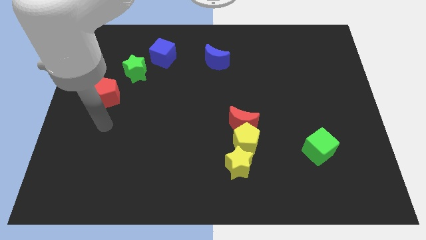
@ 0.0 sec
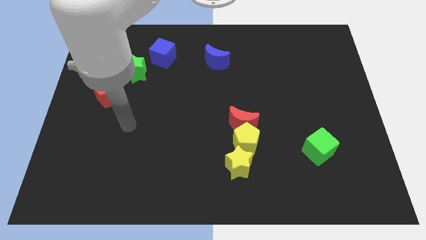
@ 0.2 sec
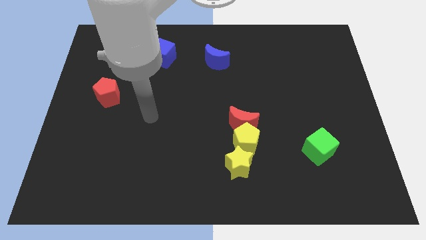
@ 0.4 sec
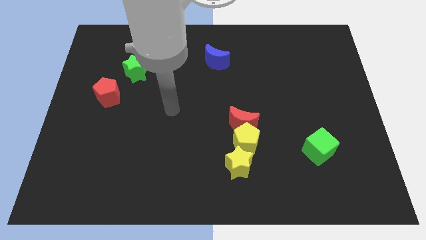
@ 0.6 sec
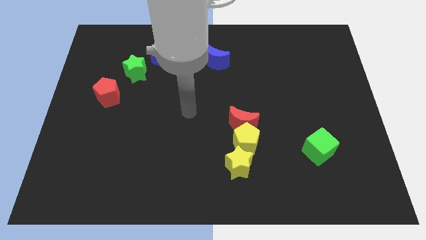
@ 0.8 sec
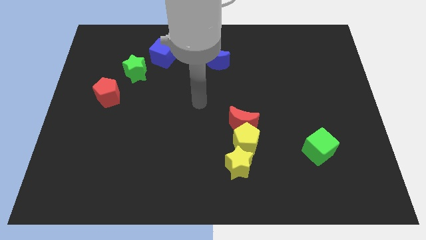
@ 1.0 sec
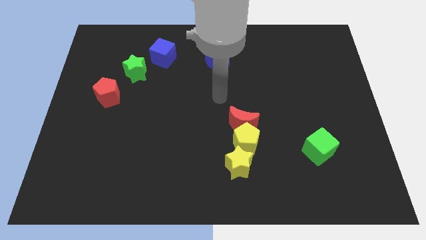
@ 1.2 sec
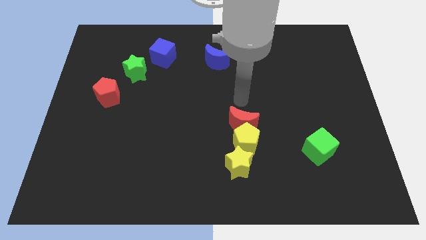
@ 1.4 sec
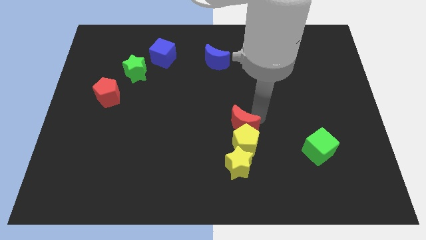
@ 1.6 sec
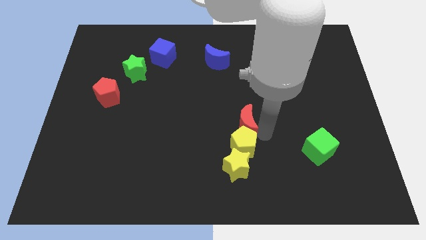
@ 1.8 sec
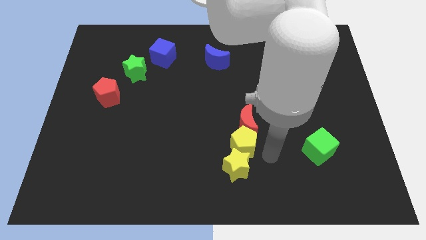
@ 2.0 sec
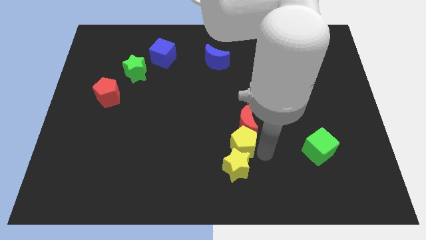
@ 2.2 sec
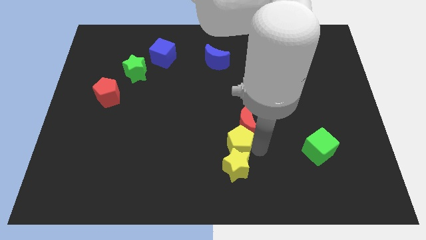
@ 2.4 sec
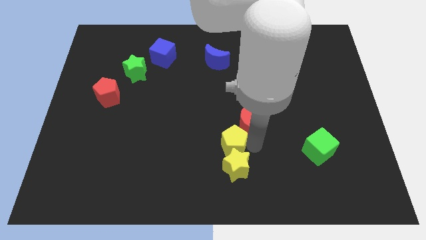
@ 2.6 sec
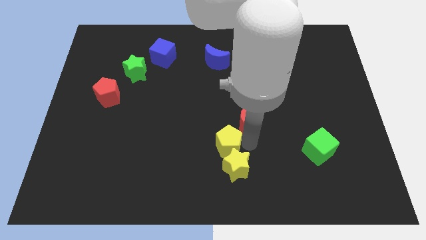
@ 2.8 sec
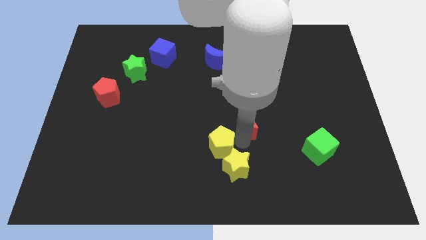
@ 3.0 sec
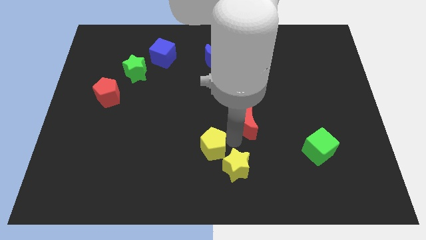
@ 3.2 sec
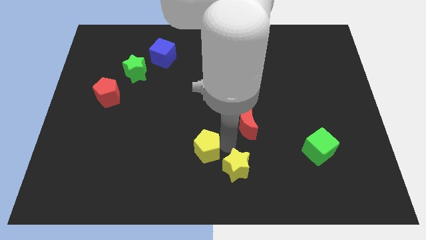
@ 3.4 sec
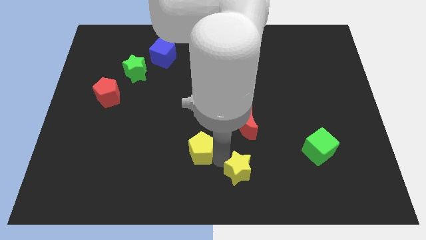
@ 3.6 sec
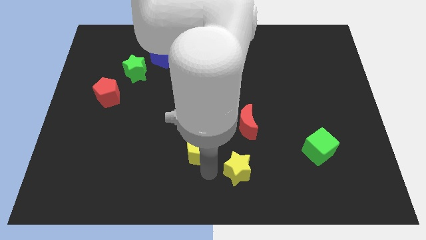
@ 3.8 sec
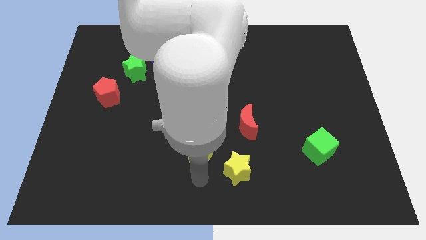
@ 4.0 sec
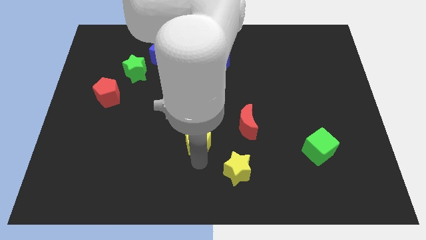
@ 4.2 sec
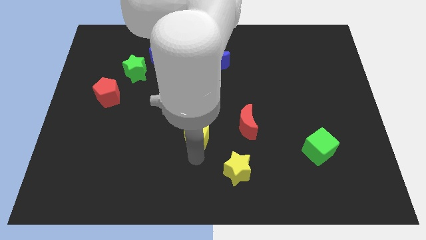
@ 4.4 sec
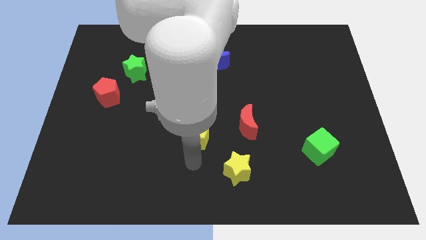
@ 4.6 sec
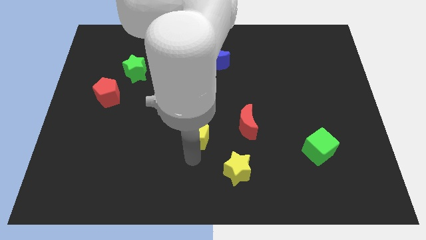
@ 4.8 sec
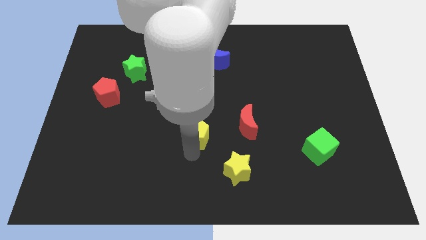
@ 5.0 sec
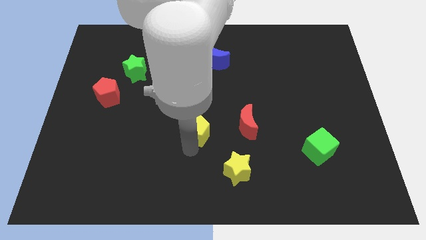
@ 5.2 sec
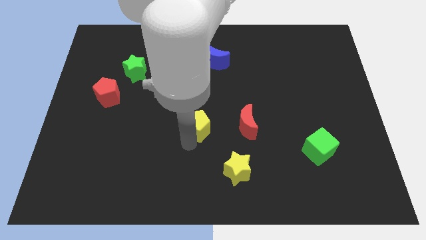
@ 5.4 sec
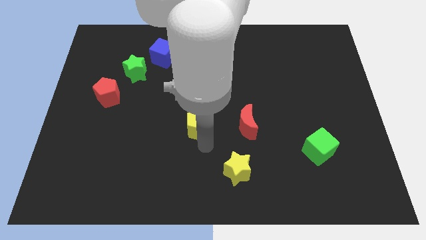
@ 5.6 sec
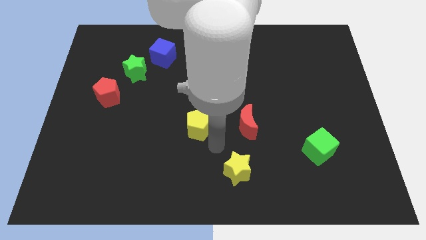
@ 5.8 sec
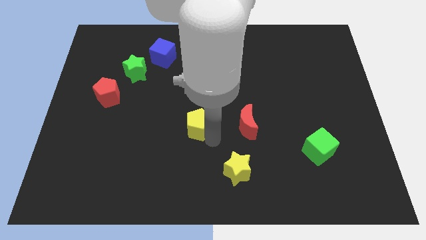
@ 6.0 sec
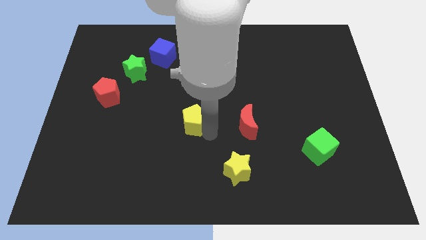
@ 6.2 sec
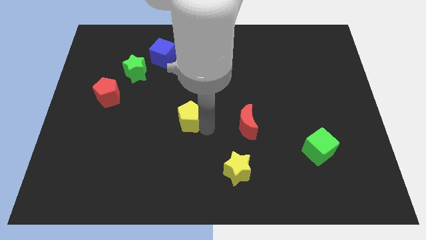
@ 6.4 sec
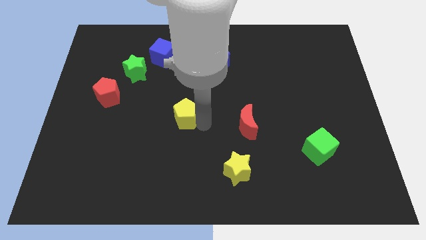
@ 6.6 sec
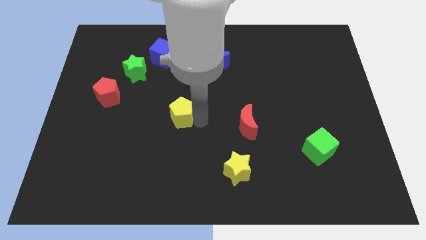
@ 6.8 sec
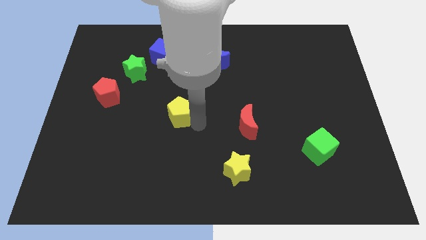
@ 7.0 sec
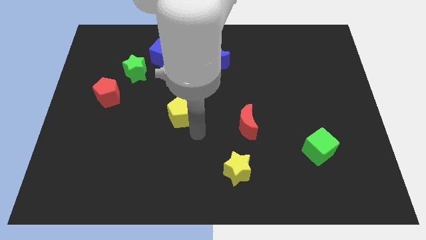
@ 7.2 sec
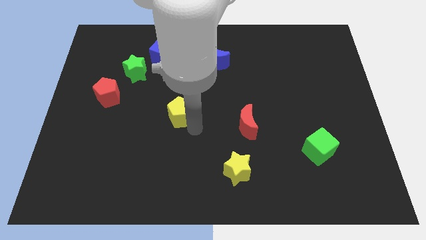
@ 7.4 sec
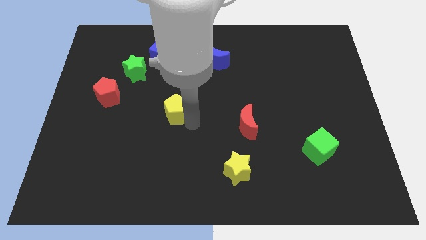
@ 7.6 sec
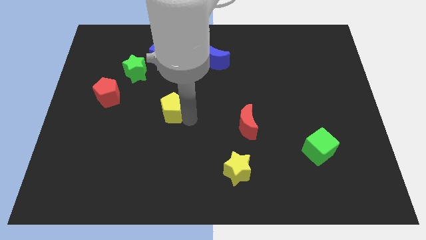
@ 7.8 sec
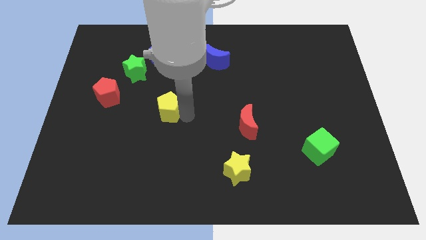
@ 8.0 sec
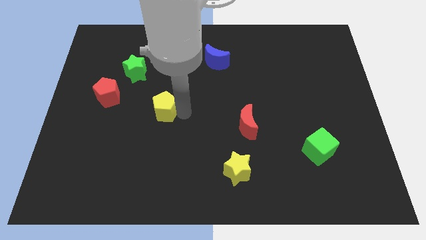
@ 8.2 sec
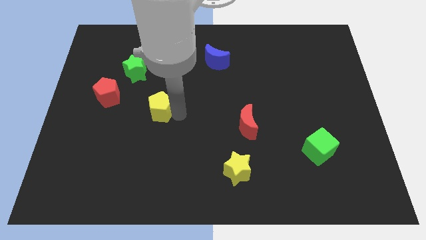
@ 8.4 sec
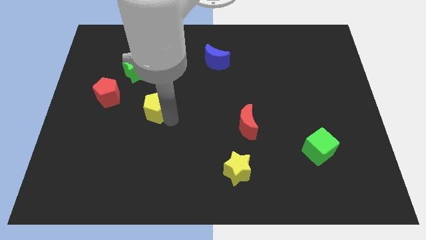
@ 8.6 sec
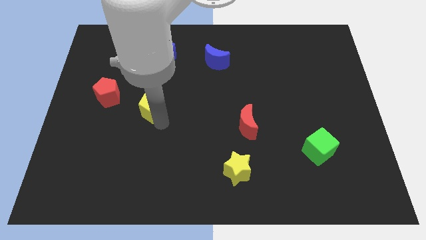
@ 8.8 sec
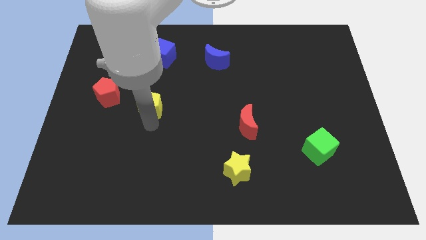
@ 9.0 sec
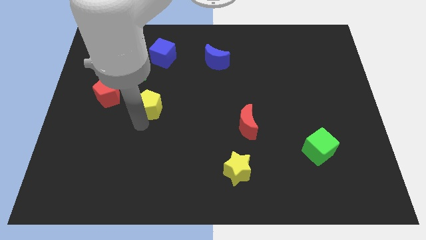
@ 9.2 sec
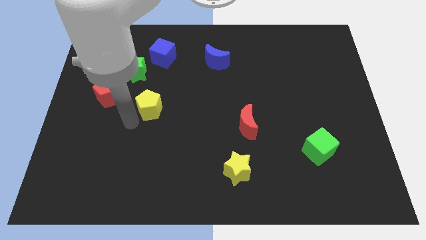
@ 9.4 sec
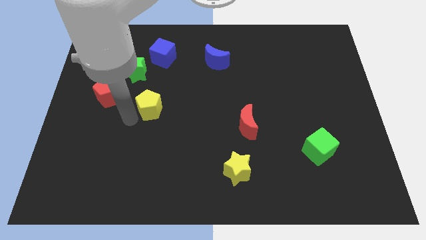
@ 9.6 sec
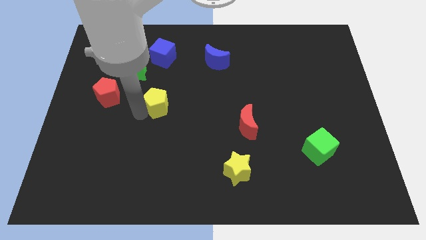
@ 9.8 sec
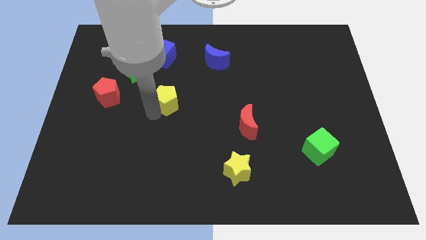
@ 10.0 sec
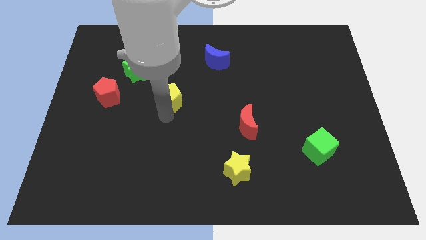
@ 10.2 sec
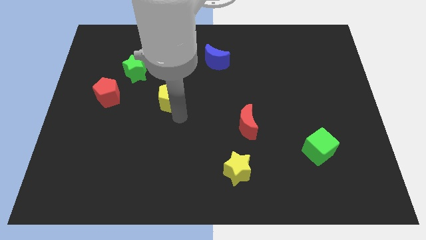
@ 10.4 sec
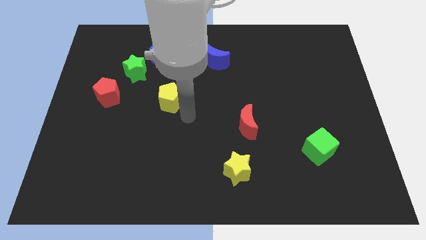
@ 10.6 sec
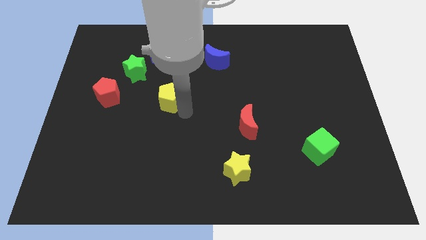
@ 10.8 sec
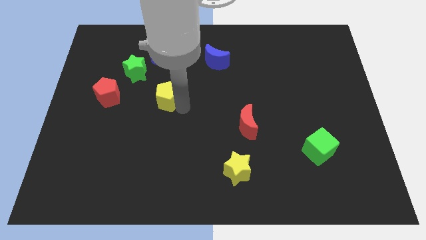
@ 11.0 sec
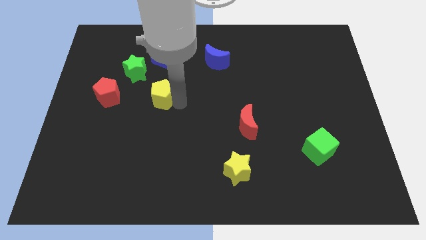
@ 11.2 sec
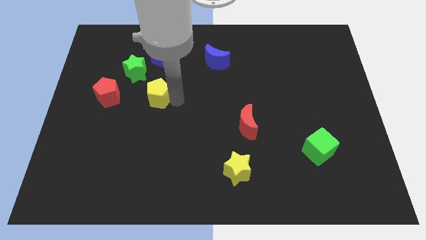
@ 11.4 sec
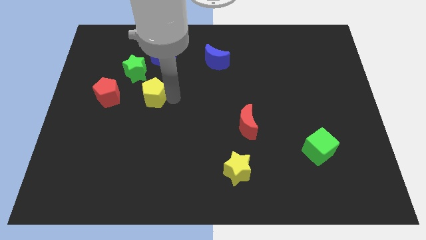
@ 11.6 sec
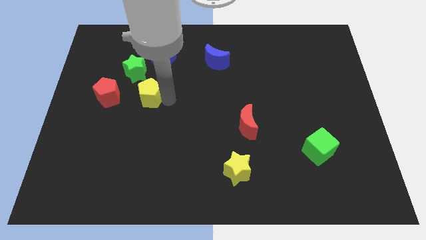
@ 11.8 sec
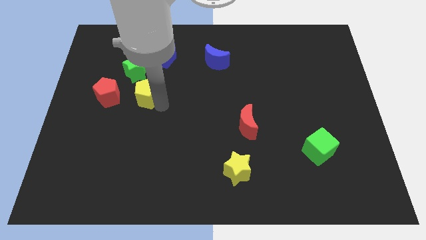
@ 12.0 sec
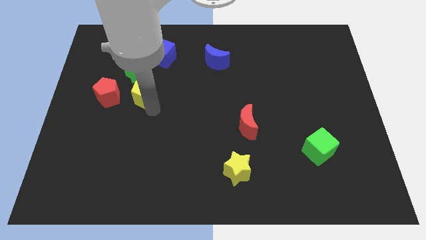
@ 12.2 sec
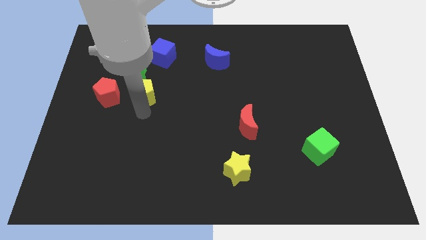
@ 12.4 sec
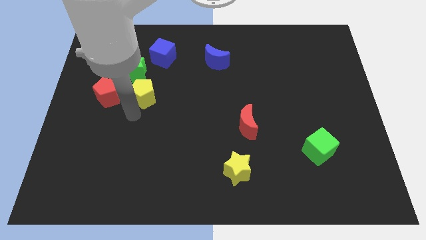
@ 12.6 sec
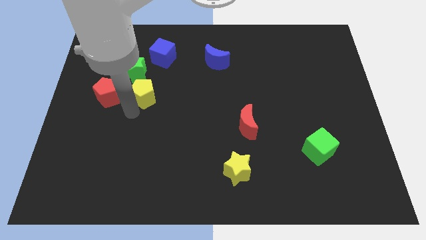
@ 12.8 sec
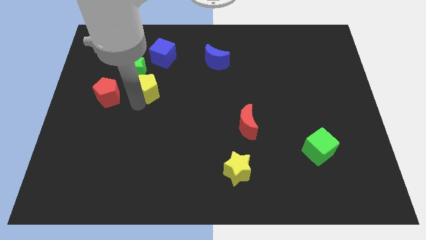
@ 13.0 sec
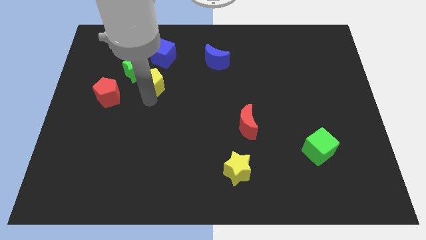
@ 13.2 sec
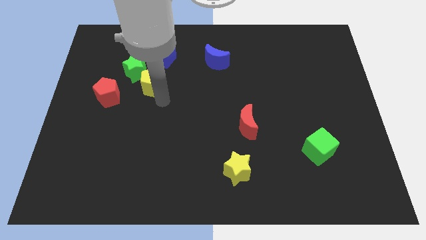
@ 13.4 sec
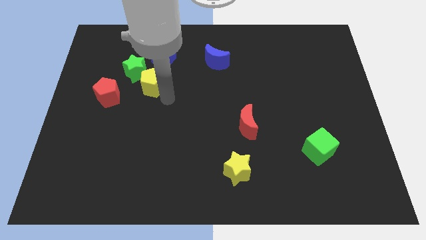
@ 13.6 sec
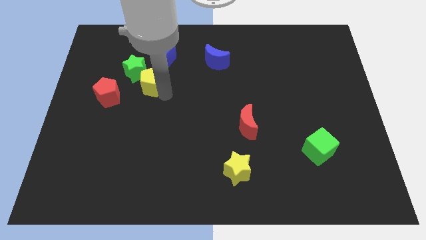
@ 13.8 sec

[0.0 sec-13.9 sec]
slide the yellow pentagon close to the green star

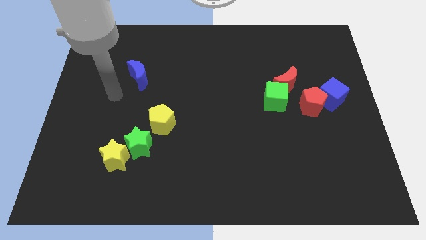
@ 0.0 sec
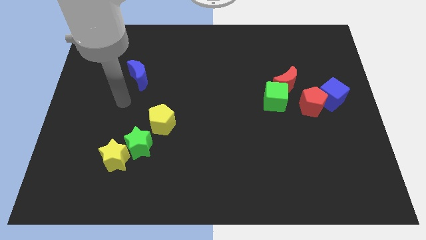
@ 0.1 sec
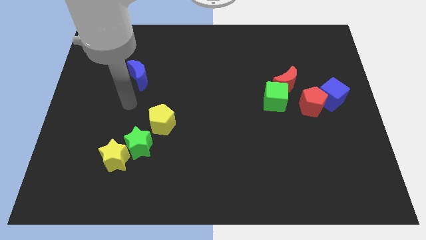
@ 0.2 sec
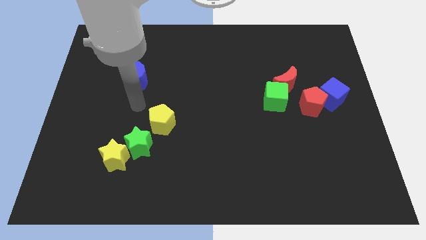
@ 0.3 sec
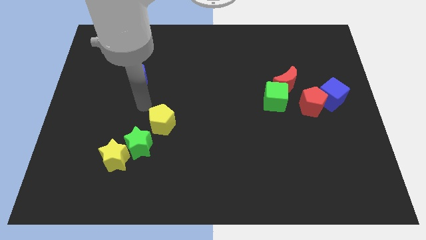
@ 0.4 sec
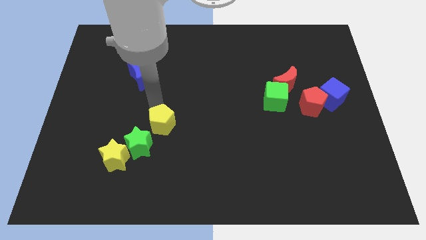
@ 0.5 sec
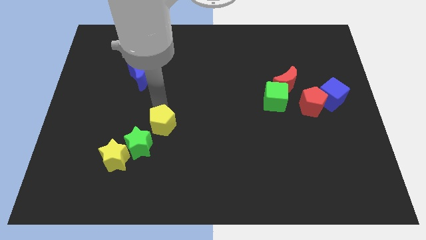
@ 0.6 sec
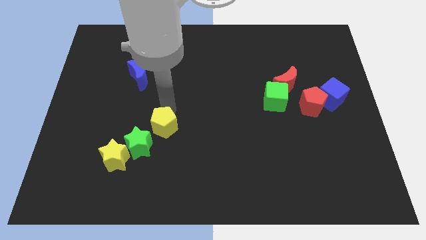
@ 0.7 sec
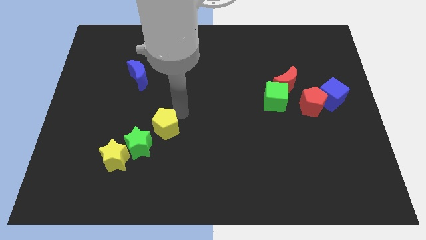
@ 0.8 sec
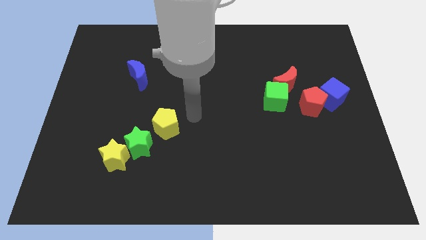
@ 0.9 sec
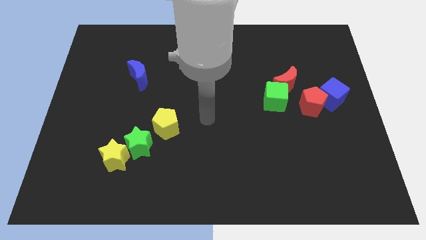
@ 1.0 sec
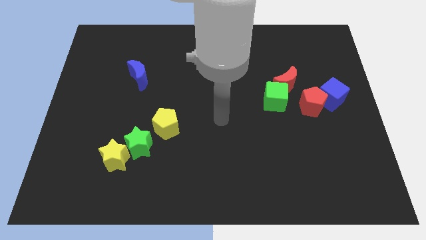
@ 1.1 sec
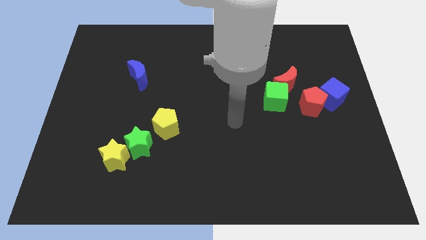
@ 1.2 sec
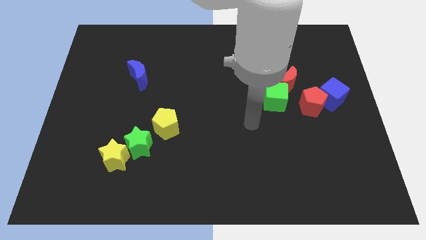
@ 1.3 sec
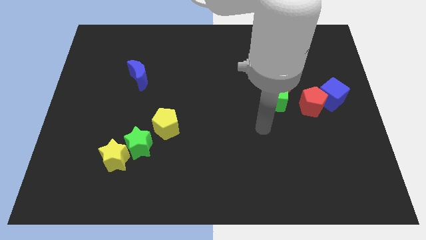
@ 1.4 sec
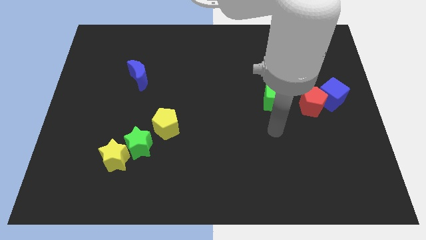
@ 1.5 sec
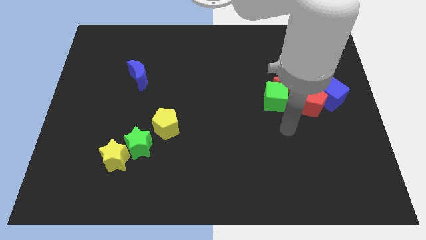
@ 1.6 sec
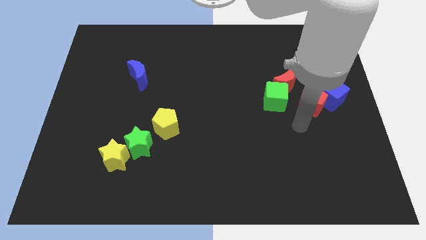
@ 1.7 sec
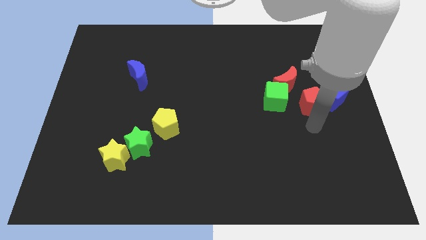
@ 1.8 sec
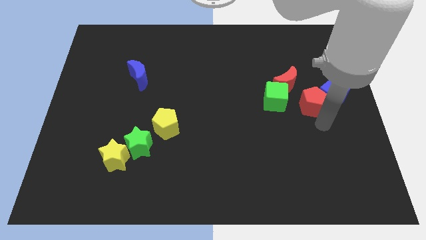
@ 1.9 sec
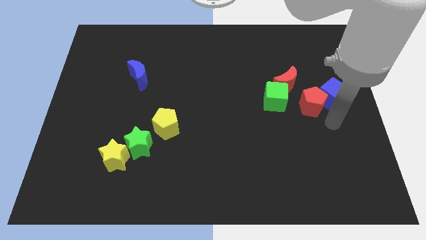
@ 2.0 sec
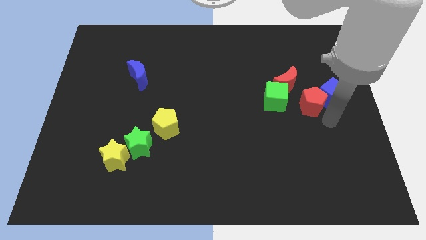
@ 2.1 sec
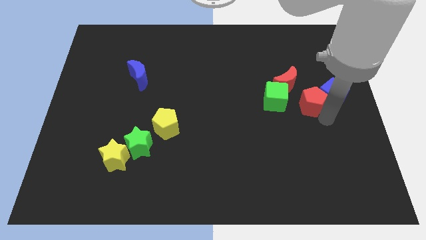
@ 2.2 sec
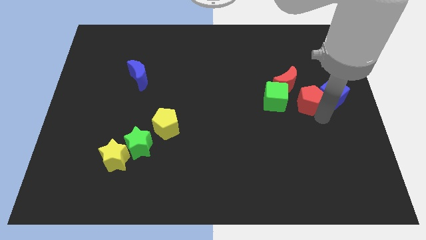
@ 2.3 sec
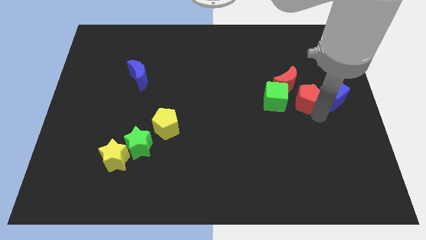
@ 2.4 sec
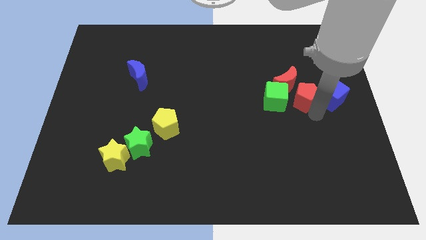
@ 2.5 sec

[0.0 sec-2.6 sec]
push the red pentagon towards the red moon
